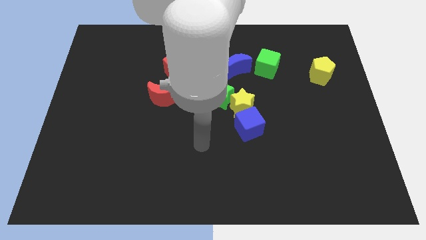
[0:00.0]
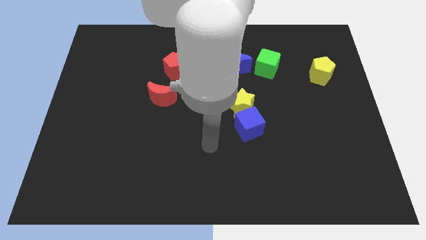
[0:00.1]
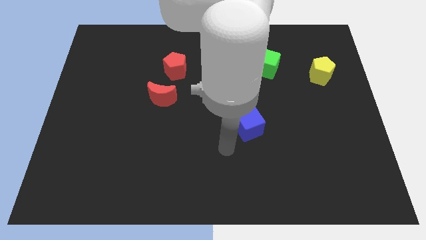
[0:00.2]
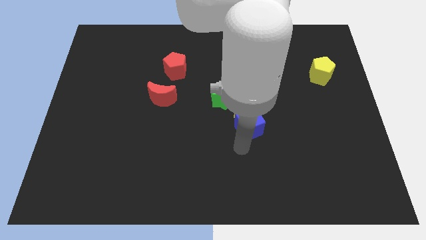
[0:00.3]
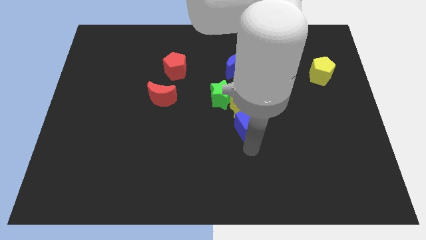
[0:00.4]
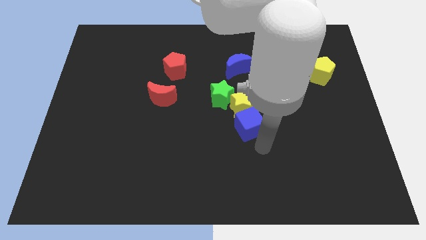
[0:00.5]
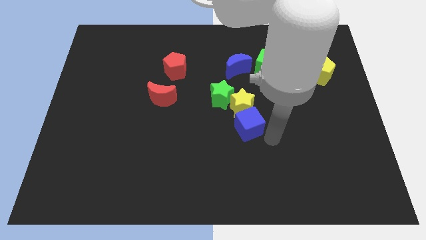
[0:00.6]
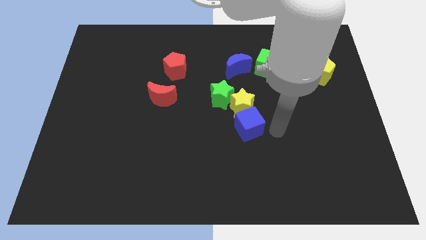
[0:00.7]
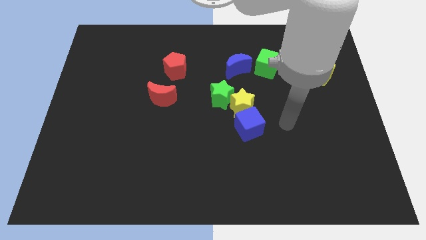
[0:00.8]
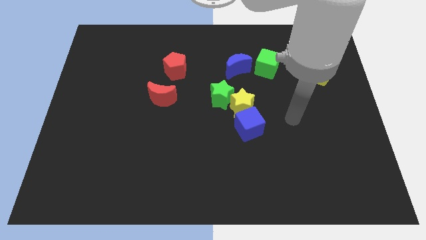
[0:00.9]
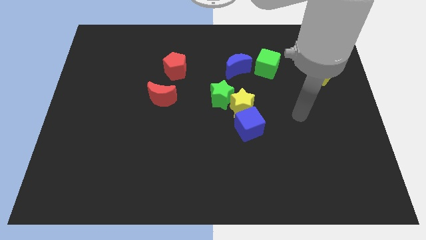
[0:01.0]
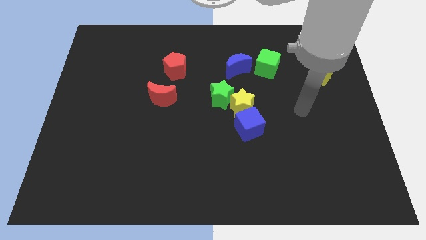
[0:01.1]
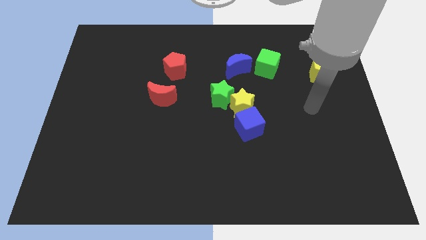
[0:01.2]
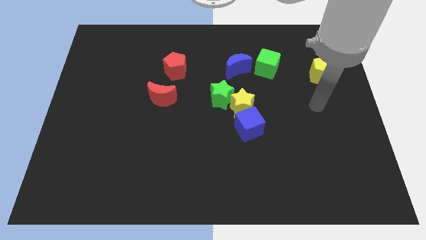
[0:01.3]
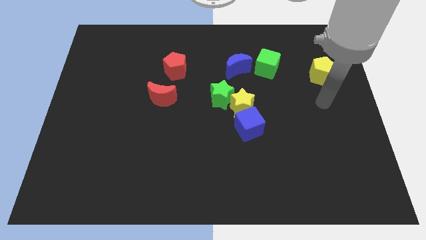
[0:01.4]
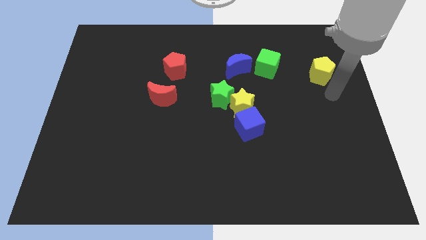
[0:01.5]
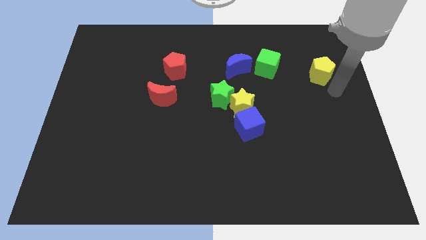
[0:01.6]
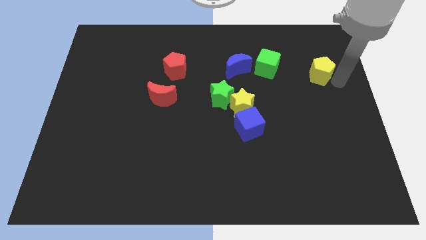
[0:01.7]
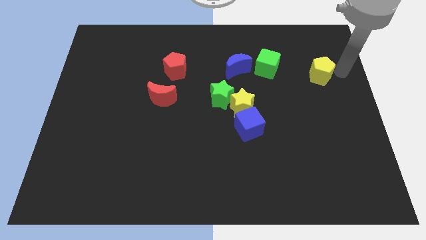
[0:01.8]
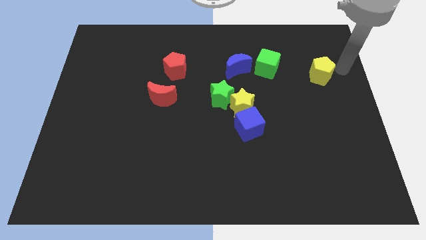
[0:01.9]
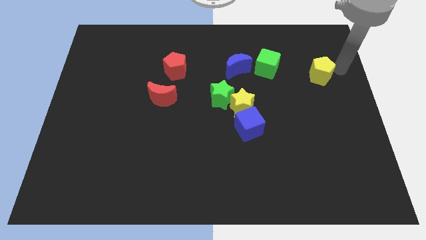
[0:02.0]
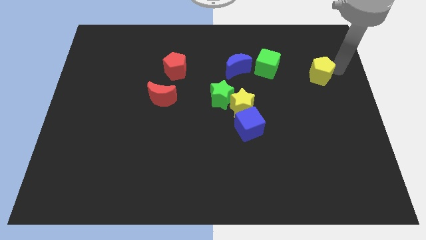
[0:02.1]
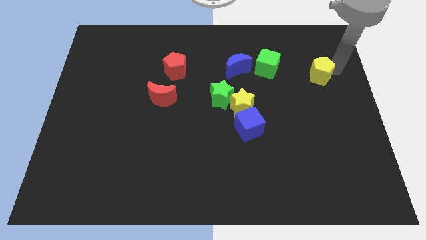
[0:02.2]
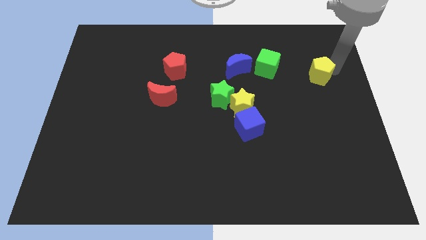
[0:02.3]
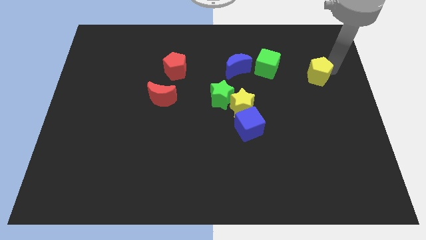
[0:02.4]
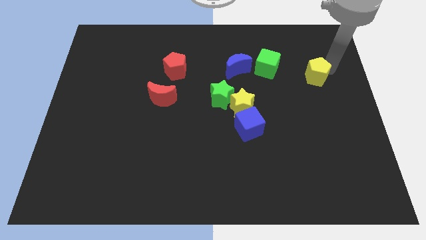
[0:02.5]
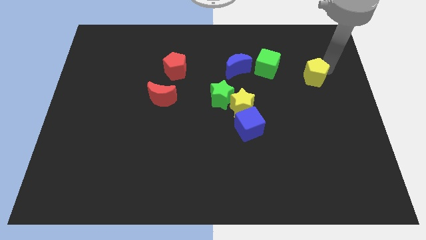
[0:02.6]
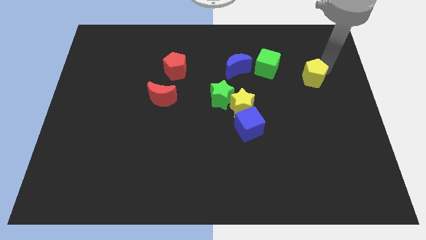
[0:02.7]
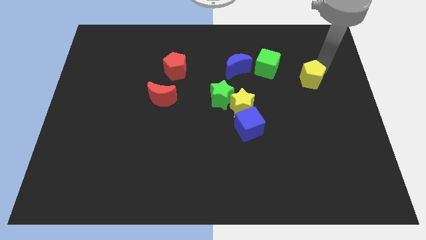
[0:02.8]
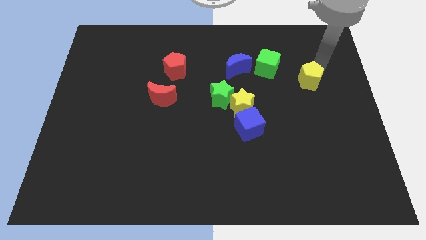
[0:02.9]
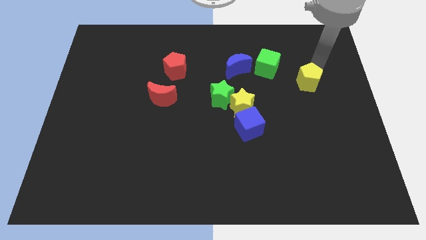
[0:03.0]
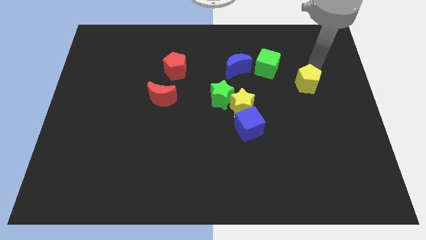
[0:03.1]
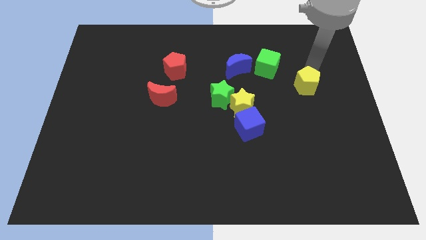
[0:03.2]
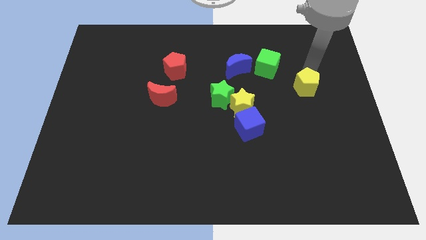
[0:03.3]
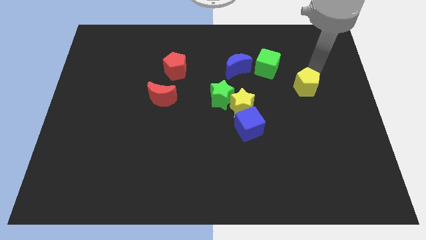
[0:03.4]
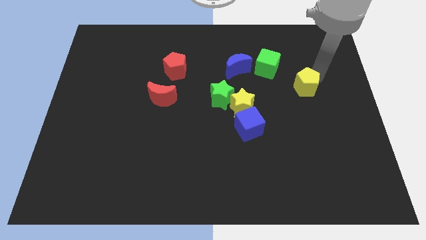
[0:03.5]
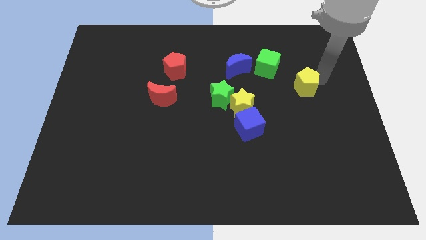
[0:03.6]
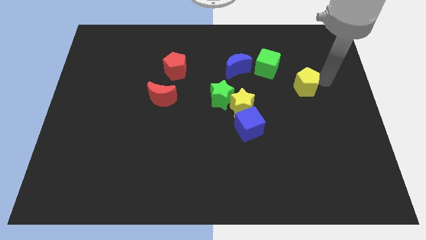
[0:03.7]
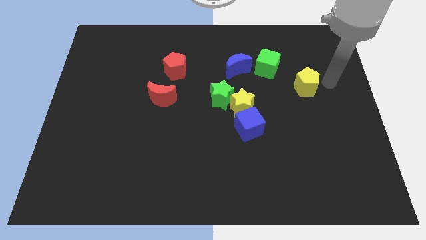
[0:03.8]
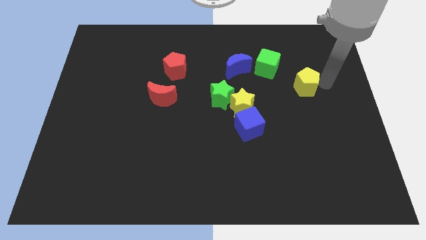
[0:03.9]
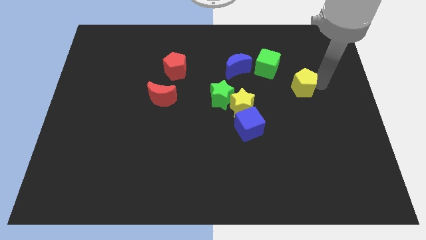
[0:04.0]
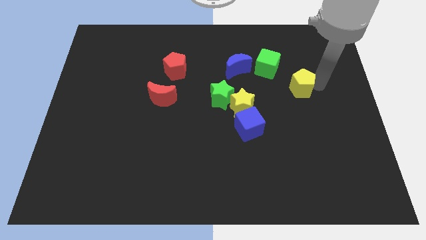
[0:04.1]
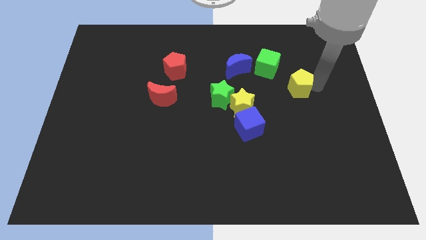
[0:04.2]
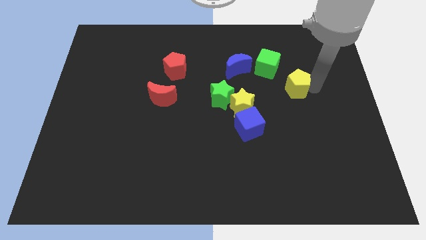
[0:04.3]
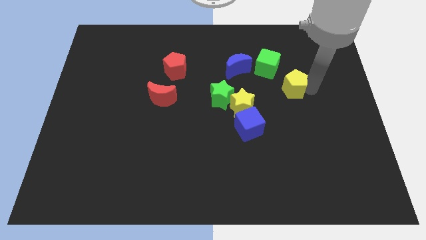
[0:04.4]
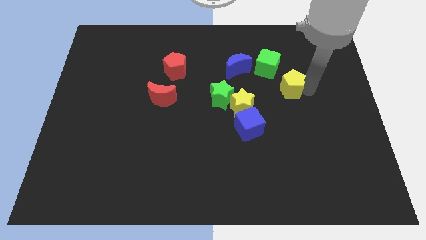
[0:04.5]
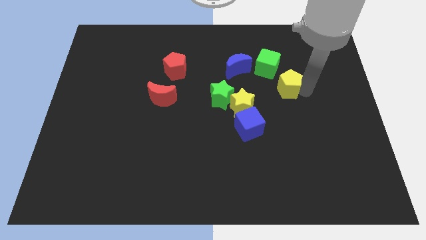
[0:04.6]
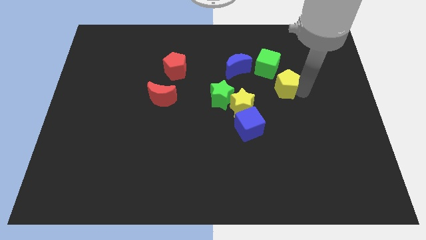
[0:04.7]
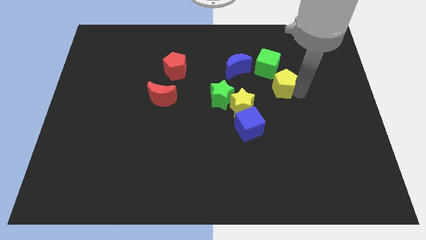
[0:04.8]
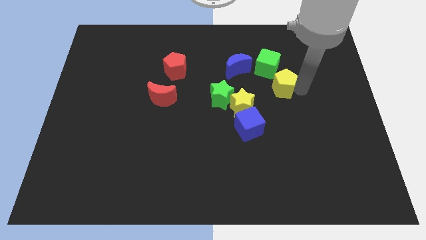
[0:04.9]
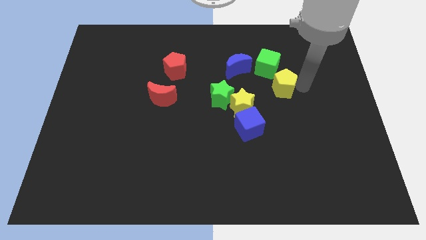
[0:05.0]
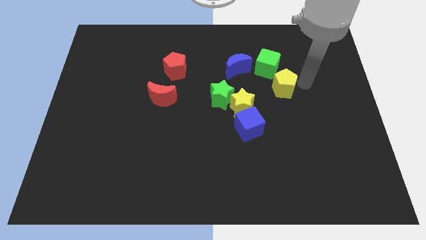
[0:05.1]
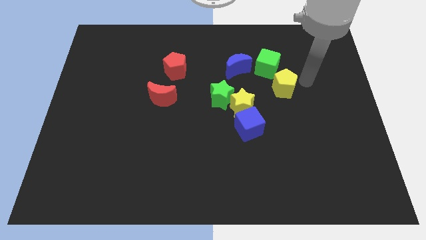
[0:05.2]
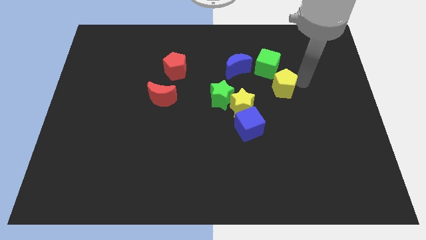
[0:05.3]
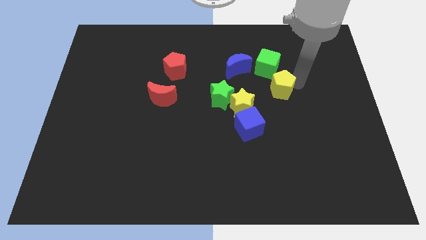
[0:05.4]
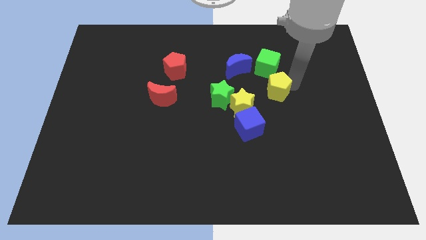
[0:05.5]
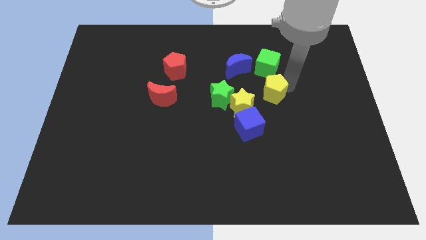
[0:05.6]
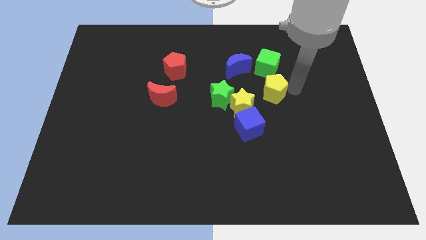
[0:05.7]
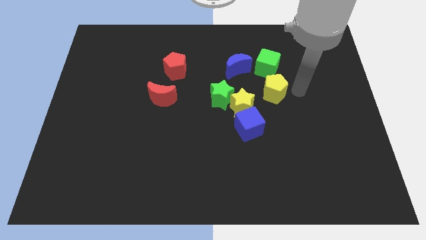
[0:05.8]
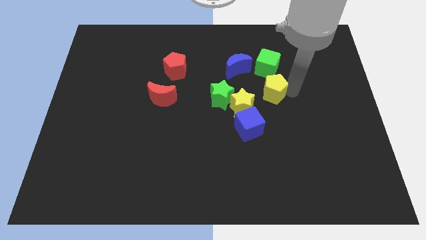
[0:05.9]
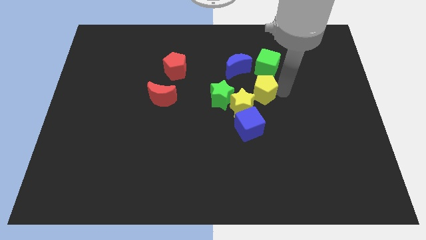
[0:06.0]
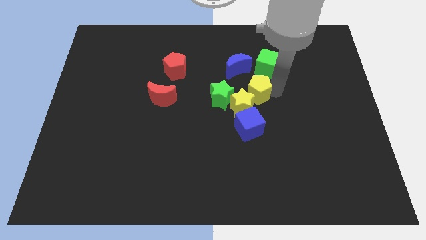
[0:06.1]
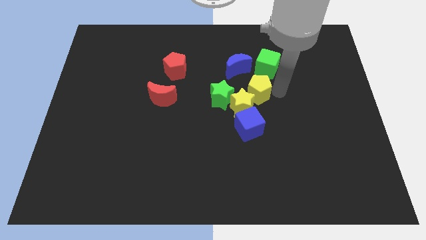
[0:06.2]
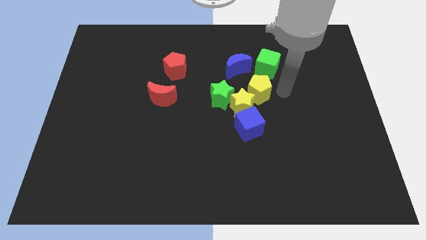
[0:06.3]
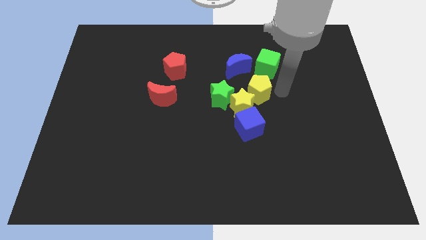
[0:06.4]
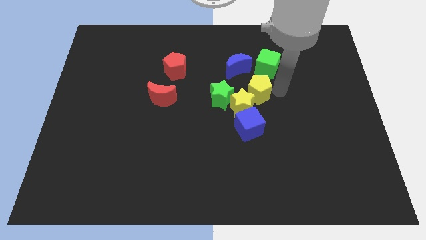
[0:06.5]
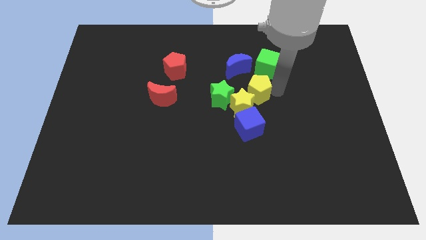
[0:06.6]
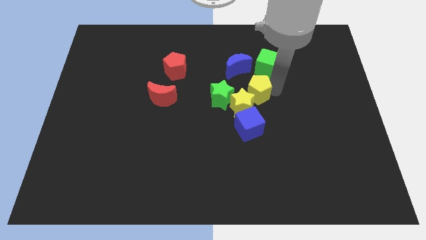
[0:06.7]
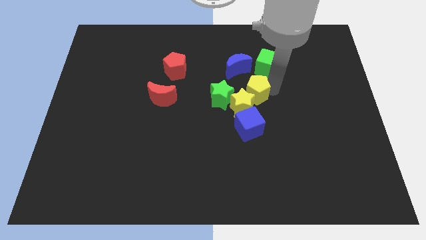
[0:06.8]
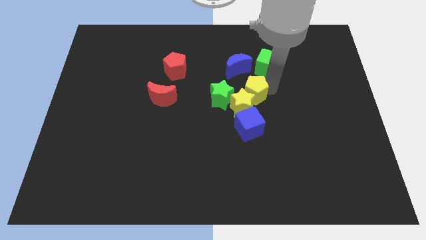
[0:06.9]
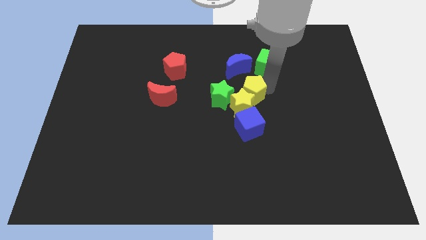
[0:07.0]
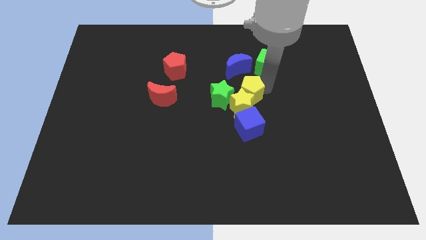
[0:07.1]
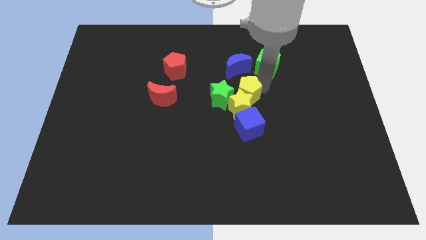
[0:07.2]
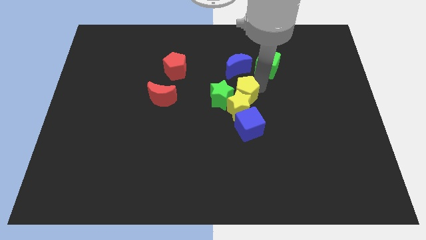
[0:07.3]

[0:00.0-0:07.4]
move the yellow pentagon next to the green star
